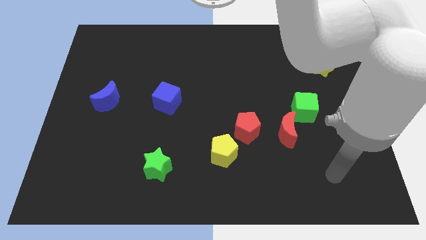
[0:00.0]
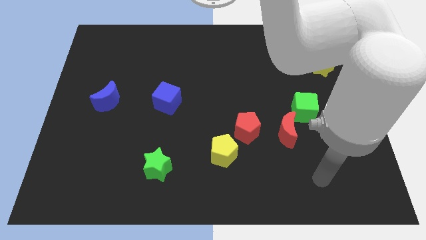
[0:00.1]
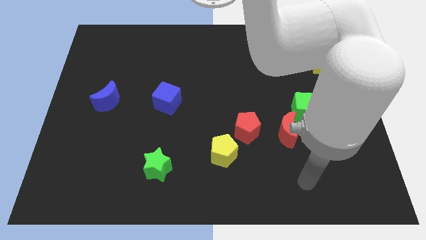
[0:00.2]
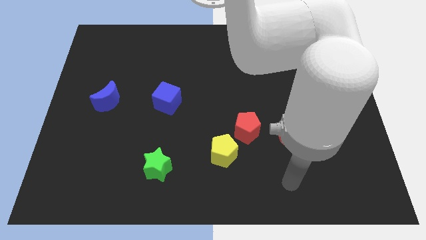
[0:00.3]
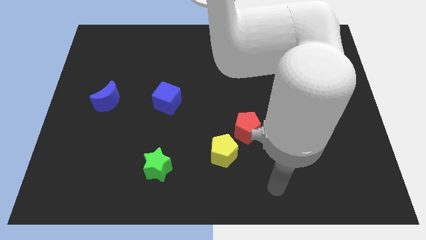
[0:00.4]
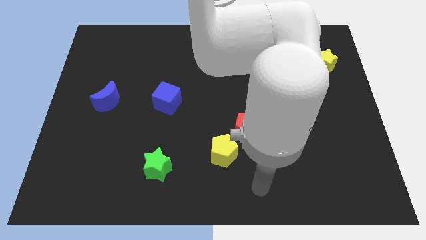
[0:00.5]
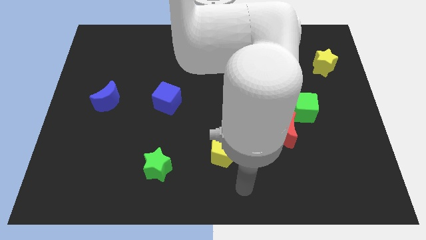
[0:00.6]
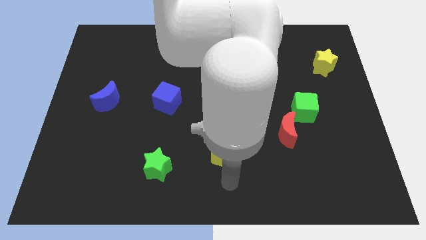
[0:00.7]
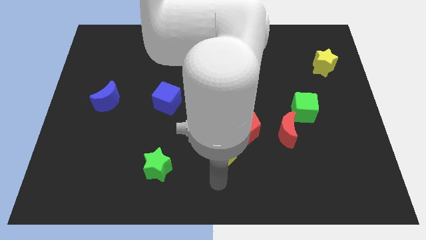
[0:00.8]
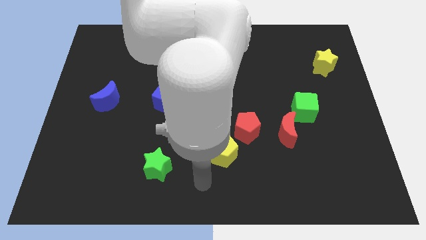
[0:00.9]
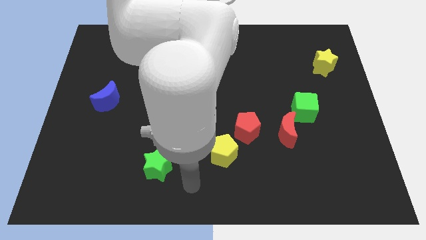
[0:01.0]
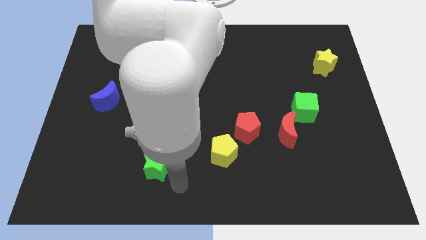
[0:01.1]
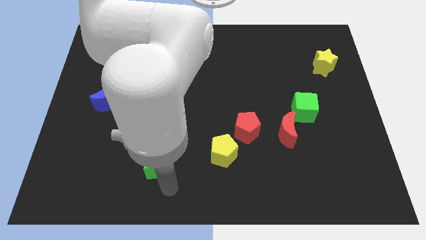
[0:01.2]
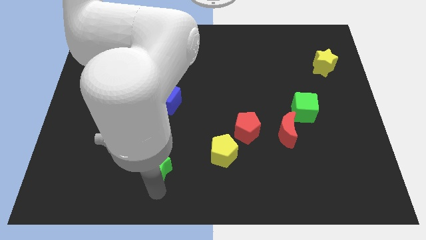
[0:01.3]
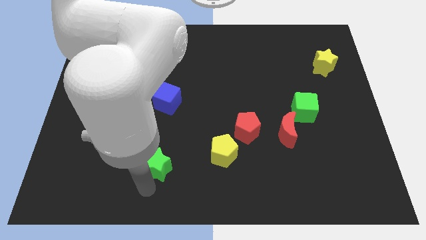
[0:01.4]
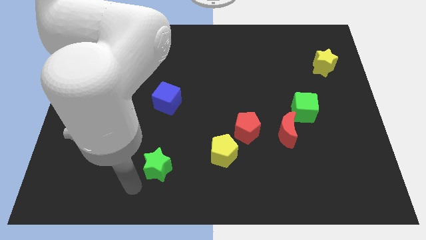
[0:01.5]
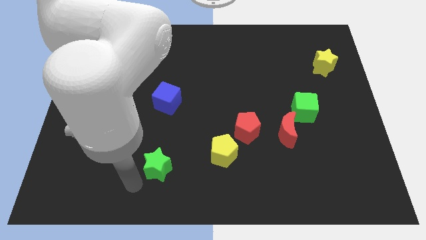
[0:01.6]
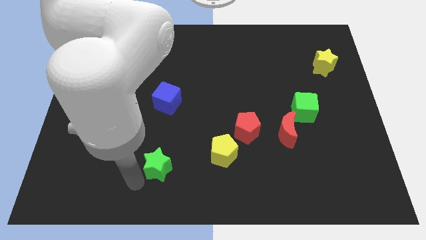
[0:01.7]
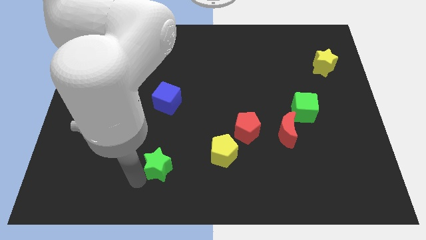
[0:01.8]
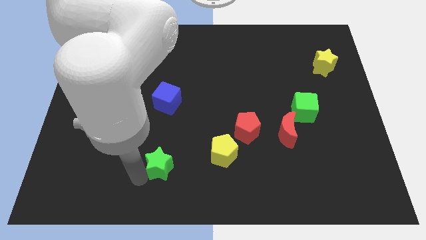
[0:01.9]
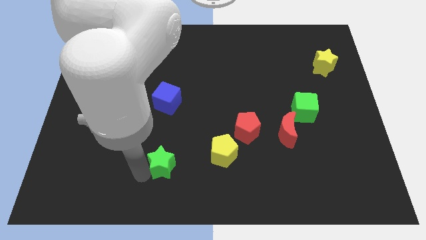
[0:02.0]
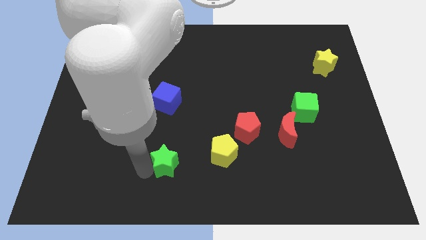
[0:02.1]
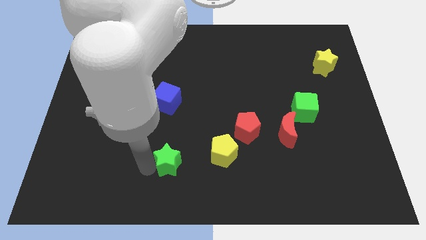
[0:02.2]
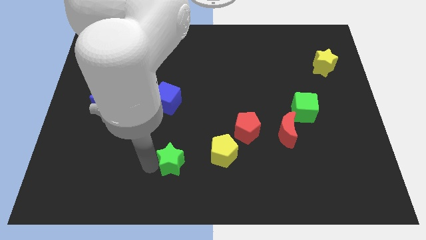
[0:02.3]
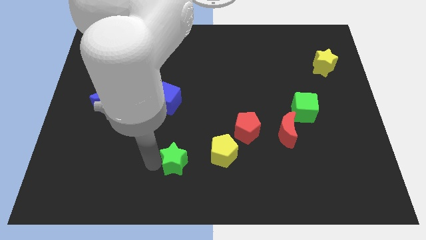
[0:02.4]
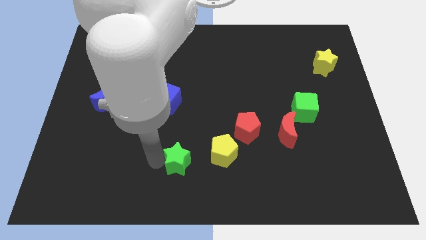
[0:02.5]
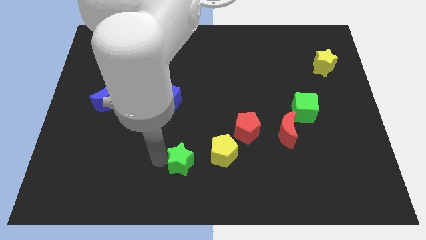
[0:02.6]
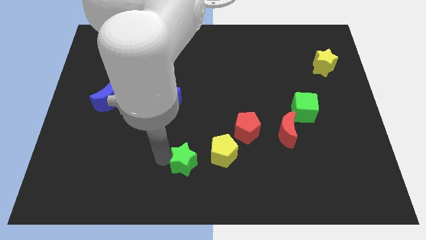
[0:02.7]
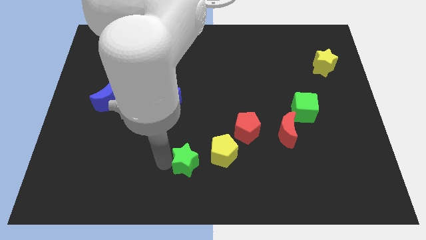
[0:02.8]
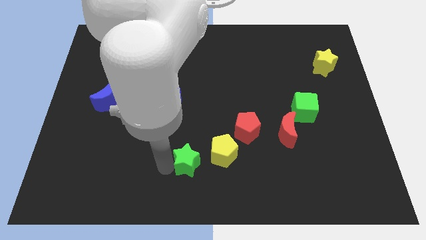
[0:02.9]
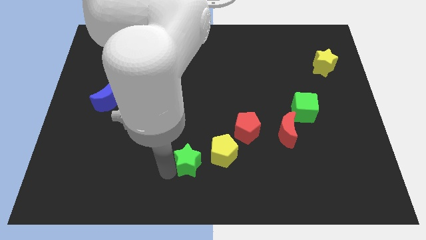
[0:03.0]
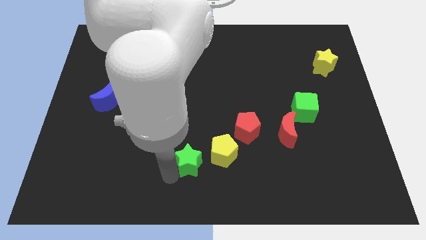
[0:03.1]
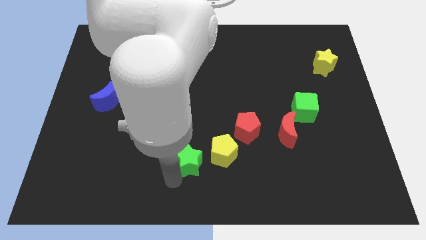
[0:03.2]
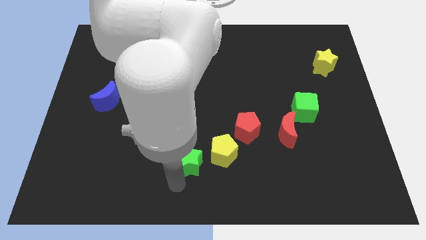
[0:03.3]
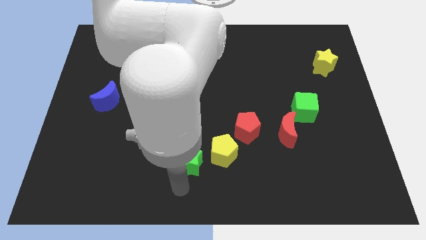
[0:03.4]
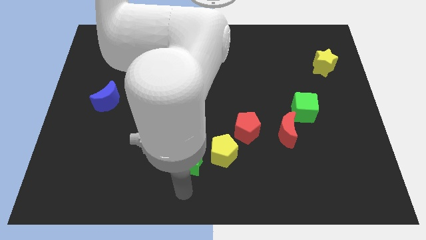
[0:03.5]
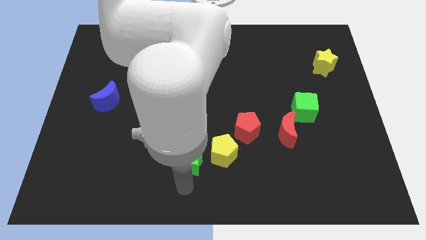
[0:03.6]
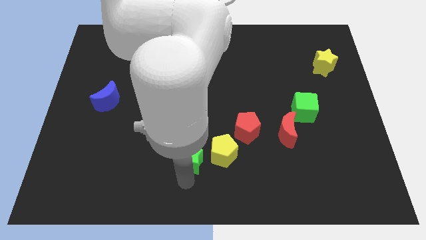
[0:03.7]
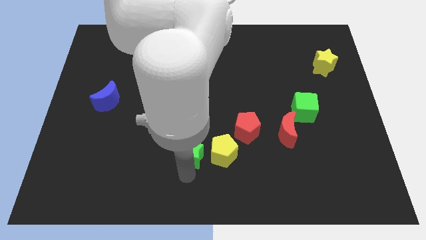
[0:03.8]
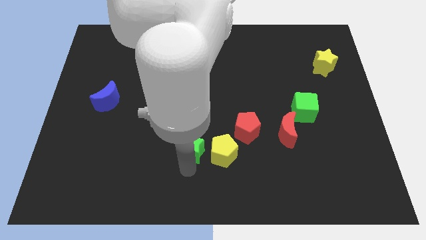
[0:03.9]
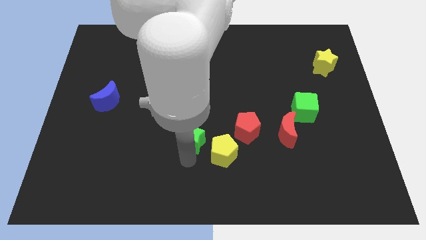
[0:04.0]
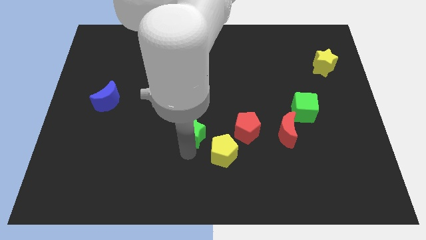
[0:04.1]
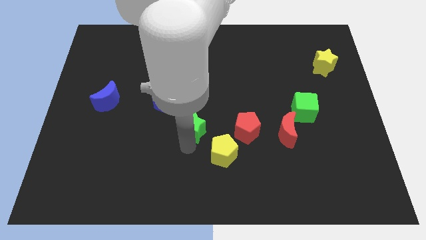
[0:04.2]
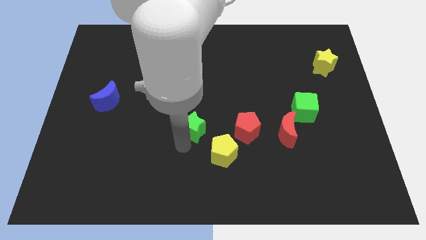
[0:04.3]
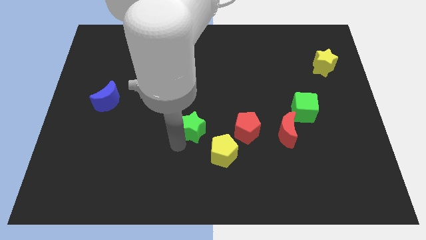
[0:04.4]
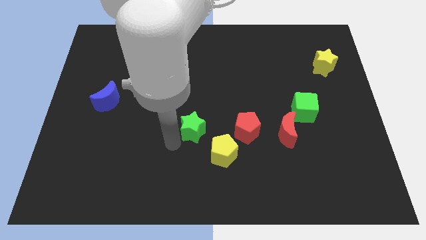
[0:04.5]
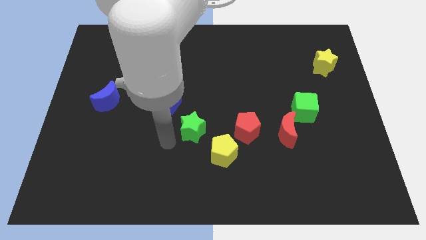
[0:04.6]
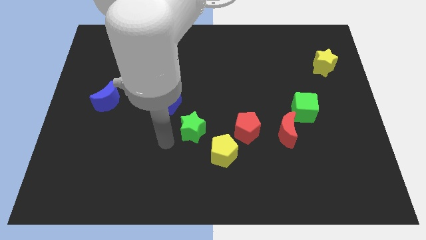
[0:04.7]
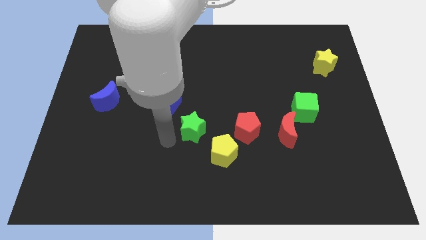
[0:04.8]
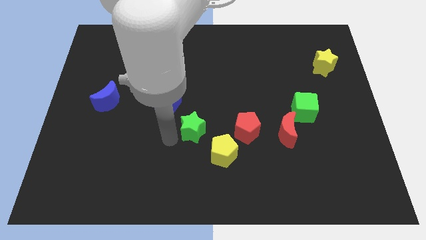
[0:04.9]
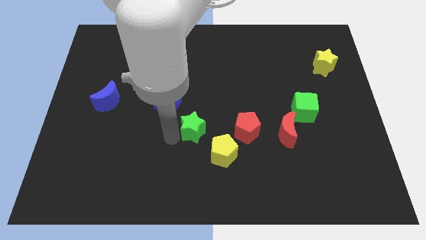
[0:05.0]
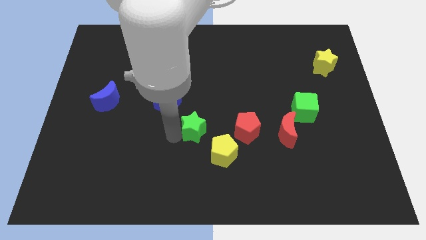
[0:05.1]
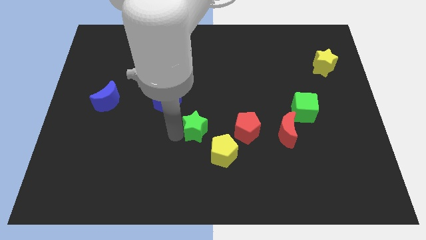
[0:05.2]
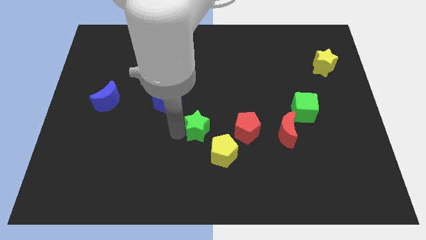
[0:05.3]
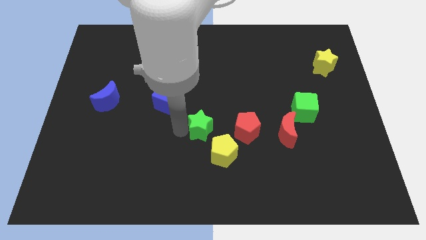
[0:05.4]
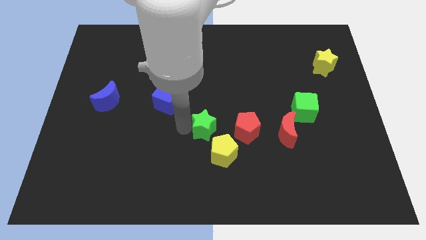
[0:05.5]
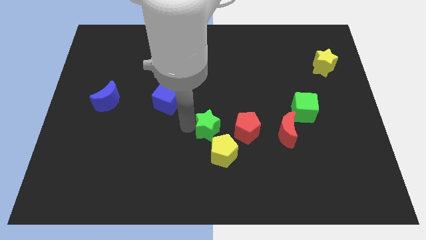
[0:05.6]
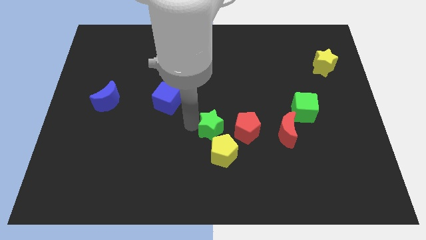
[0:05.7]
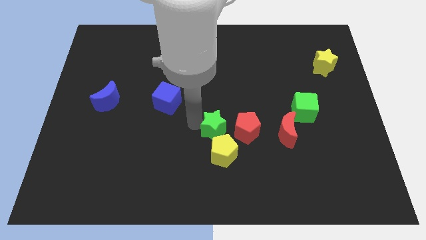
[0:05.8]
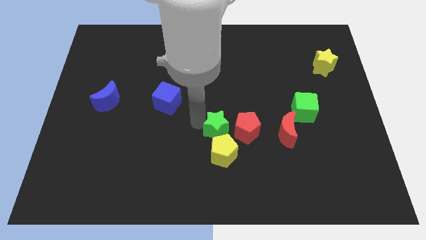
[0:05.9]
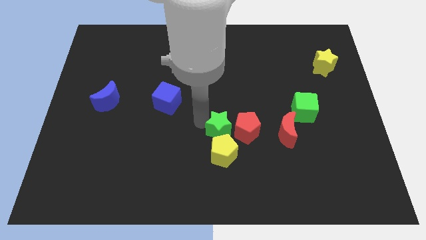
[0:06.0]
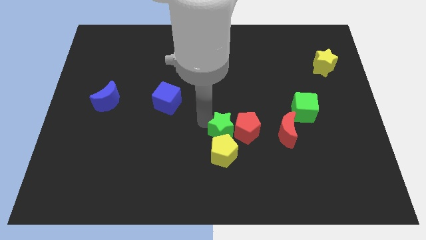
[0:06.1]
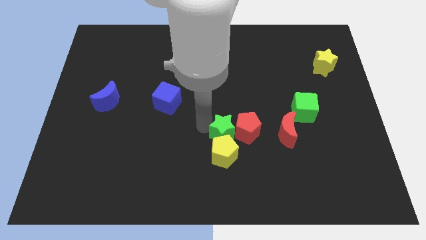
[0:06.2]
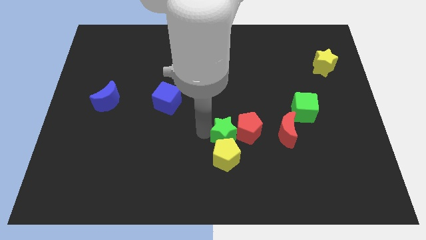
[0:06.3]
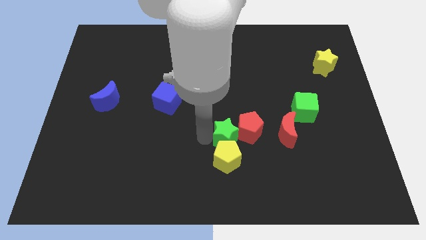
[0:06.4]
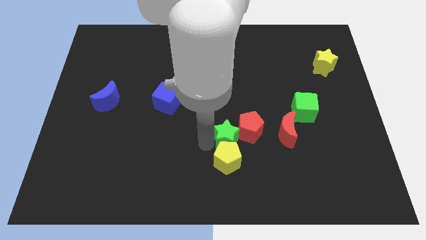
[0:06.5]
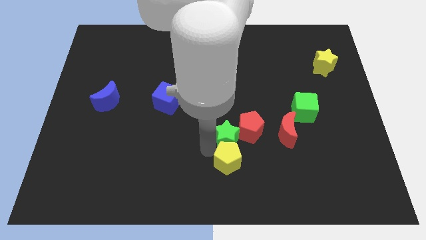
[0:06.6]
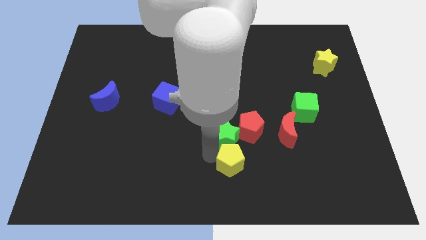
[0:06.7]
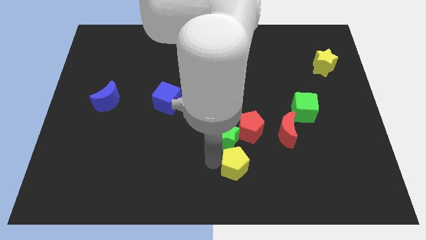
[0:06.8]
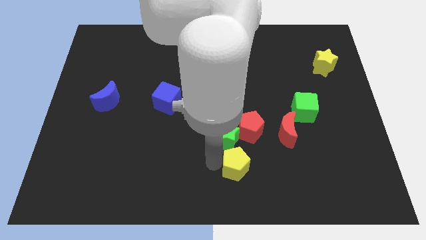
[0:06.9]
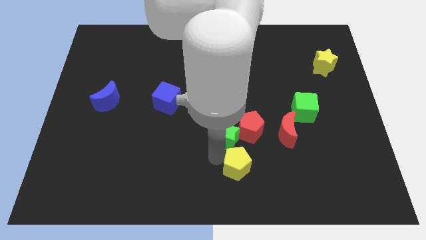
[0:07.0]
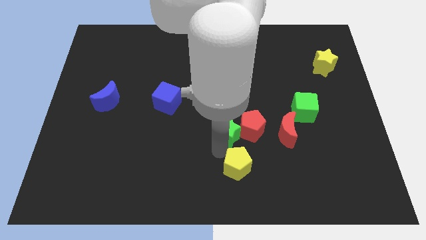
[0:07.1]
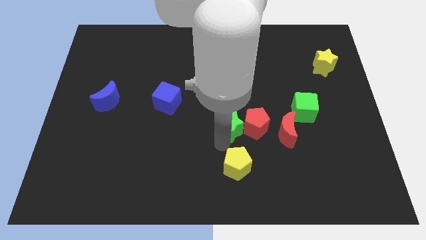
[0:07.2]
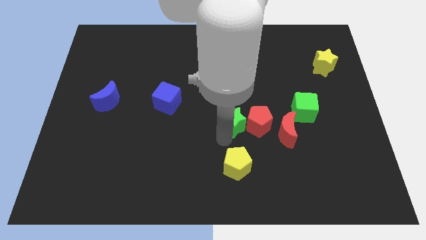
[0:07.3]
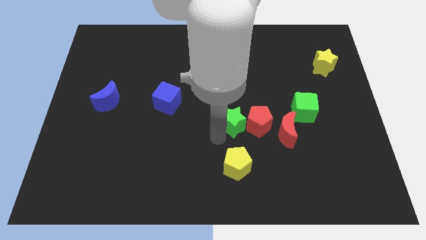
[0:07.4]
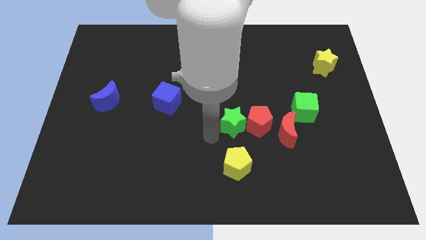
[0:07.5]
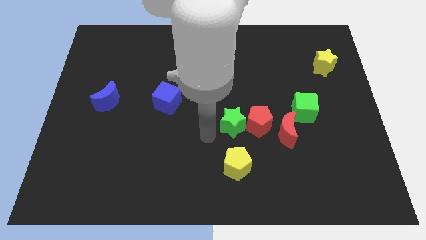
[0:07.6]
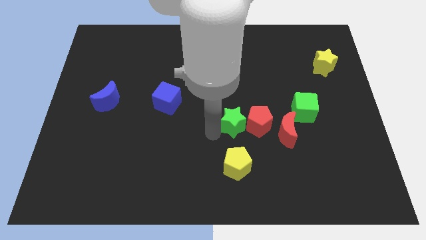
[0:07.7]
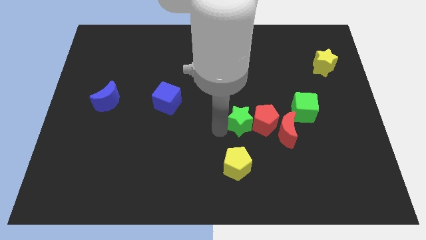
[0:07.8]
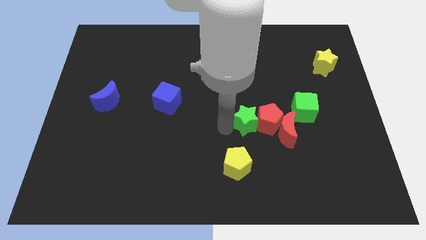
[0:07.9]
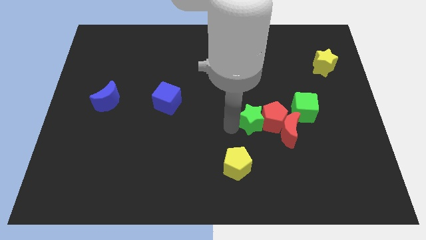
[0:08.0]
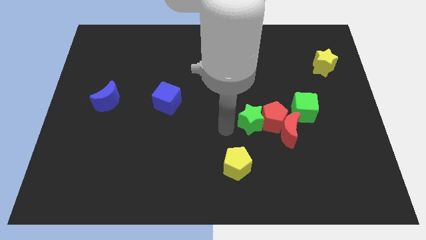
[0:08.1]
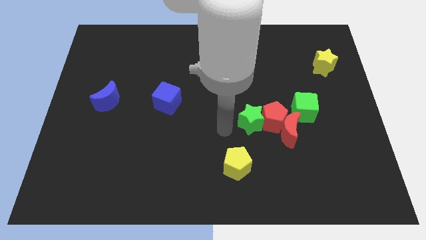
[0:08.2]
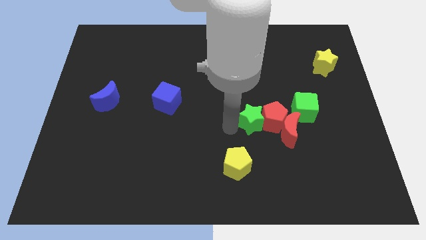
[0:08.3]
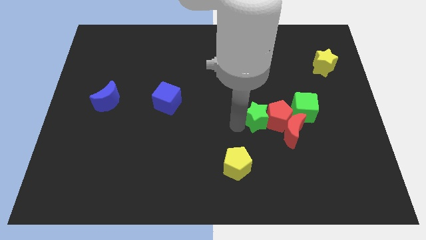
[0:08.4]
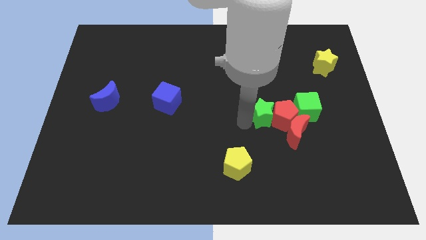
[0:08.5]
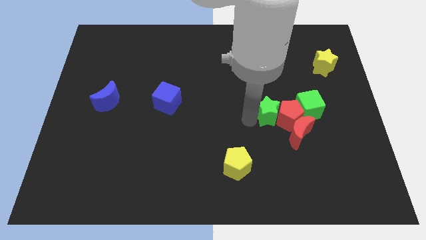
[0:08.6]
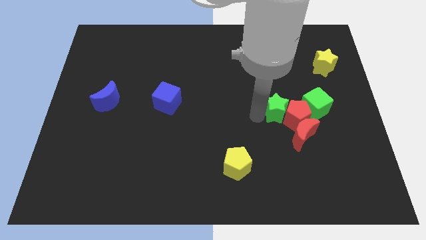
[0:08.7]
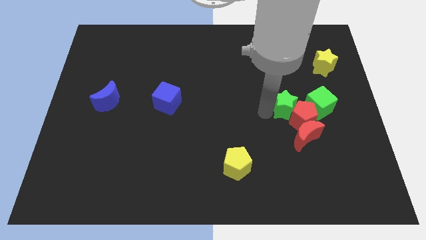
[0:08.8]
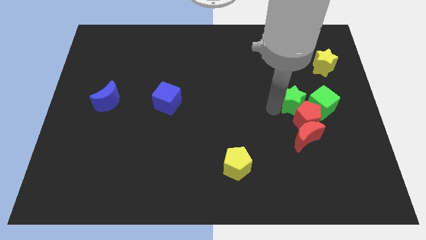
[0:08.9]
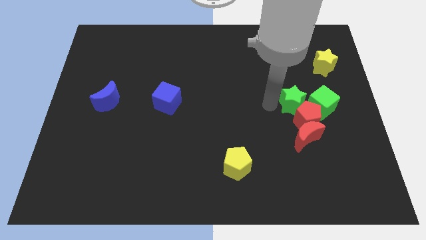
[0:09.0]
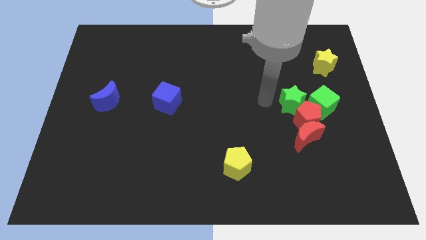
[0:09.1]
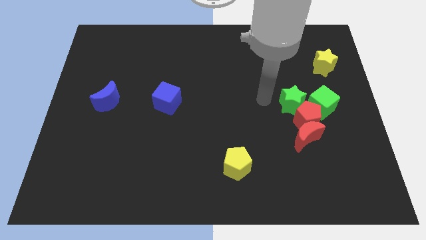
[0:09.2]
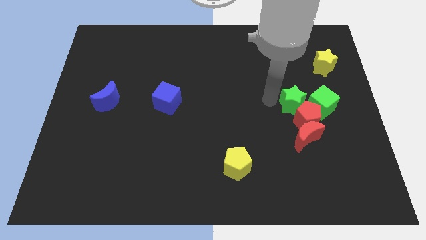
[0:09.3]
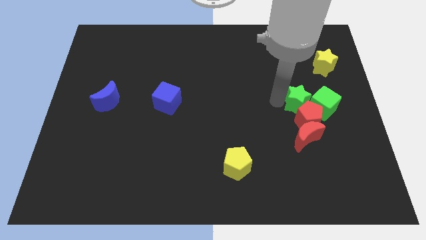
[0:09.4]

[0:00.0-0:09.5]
move the green star next to the green cube
